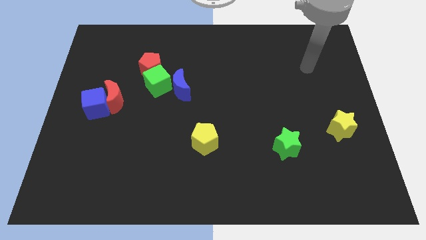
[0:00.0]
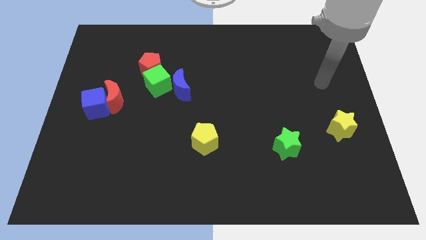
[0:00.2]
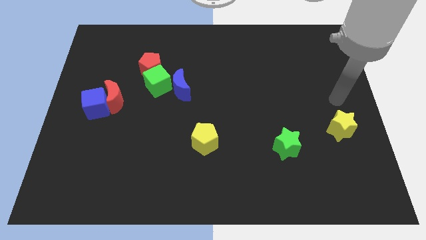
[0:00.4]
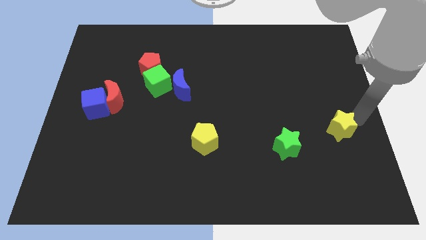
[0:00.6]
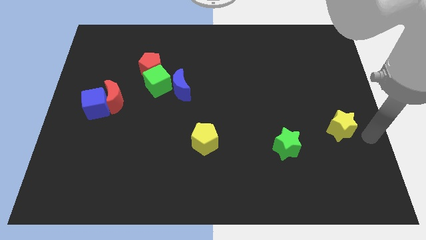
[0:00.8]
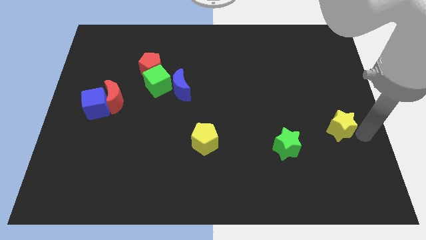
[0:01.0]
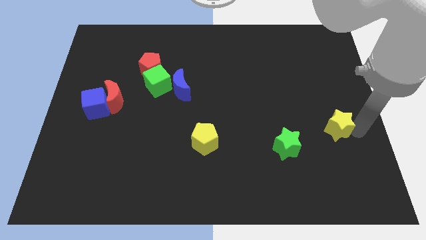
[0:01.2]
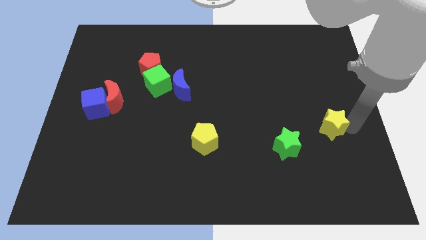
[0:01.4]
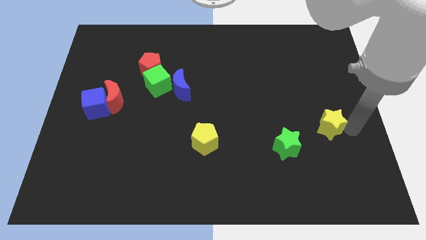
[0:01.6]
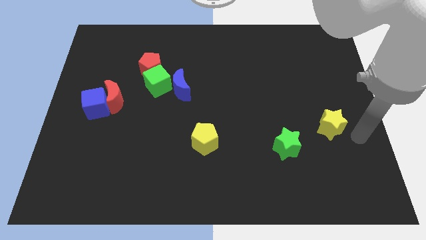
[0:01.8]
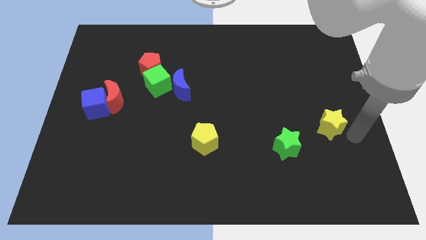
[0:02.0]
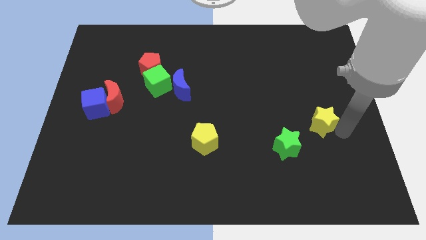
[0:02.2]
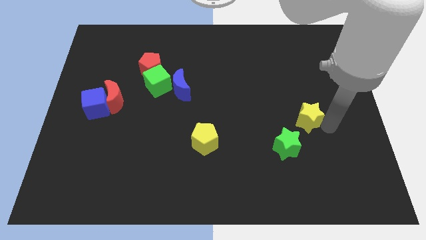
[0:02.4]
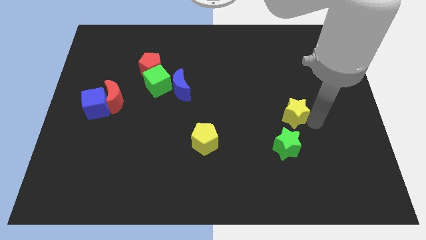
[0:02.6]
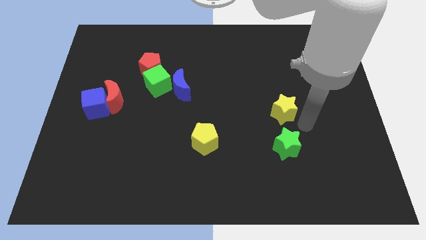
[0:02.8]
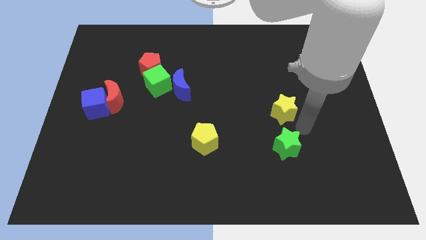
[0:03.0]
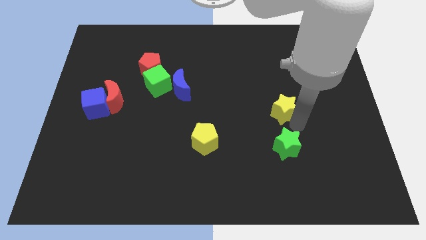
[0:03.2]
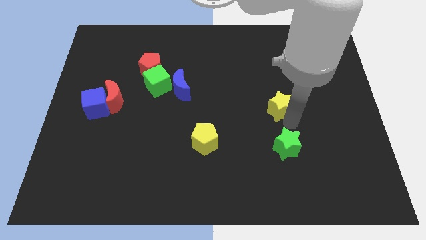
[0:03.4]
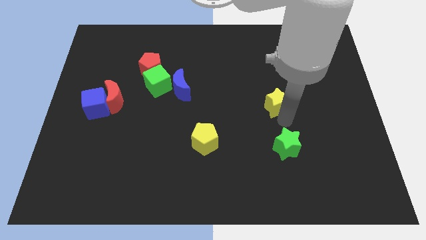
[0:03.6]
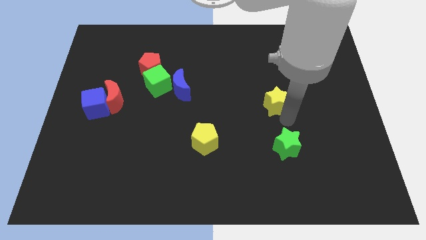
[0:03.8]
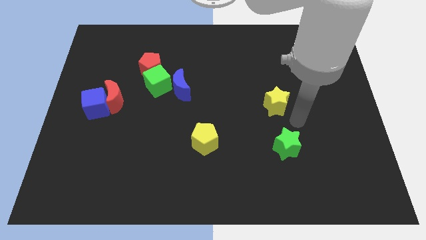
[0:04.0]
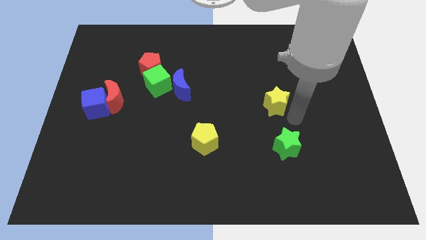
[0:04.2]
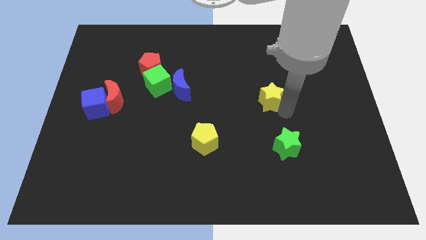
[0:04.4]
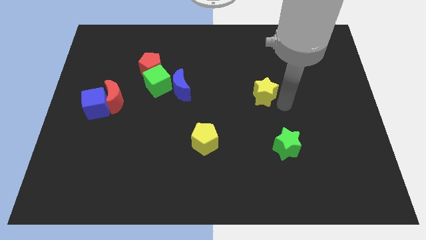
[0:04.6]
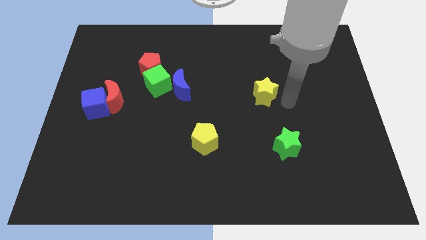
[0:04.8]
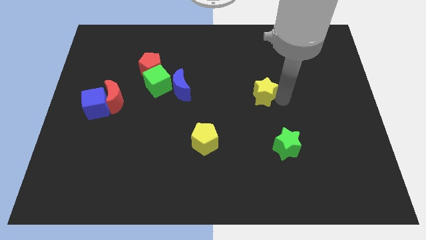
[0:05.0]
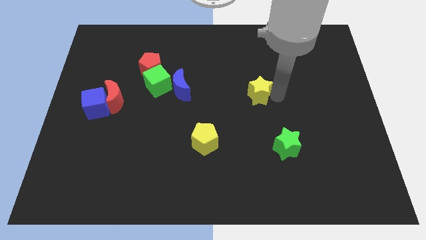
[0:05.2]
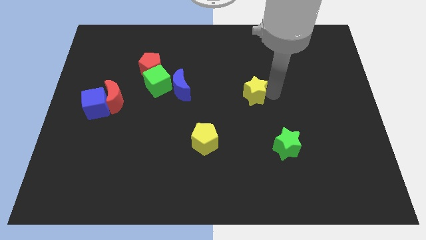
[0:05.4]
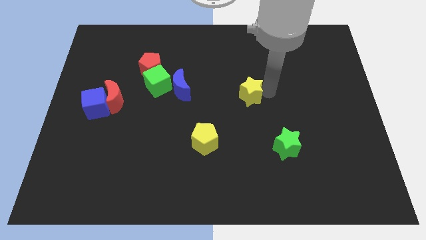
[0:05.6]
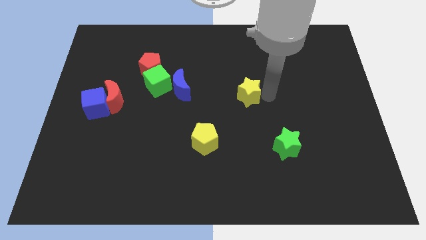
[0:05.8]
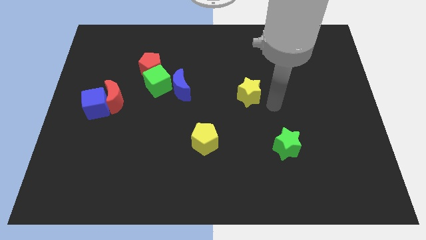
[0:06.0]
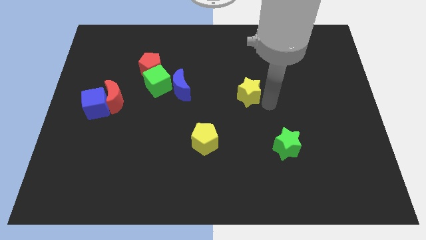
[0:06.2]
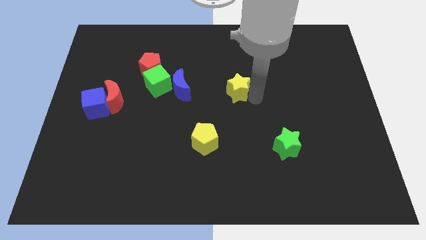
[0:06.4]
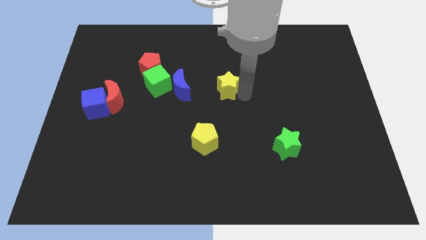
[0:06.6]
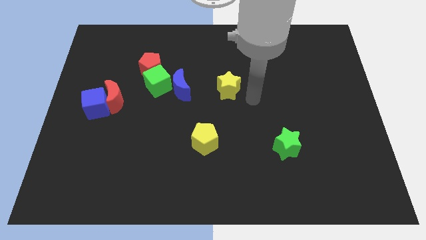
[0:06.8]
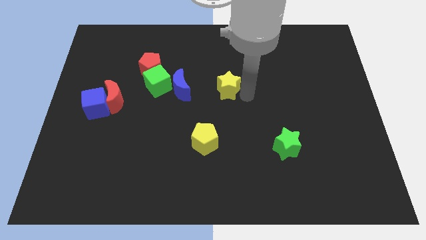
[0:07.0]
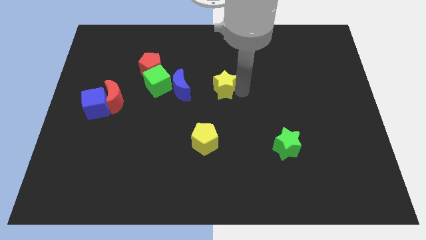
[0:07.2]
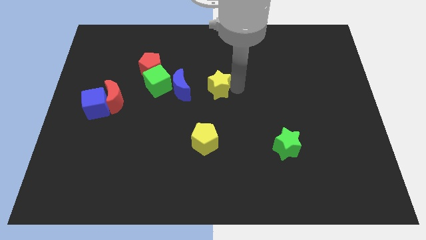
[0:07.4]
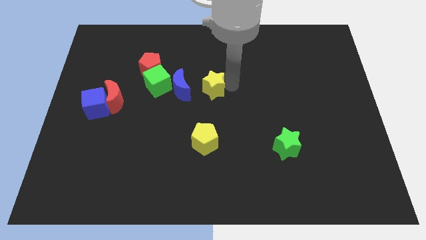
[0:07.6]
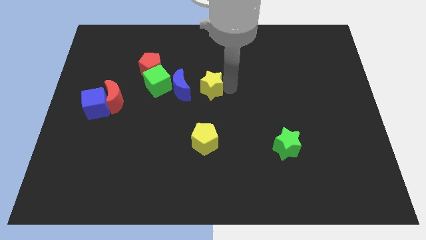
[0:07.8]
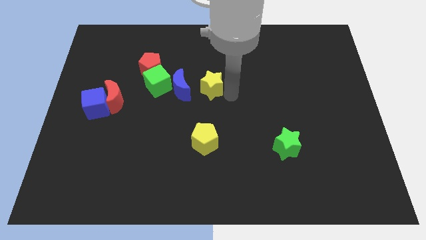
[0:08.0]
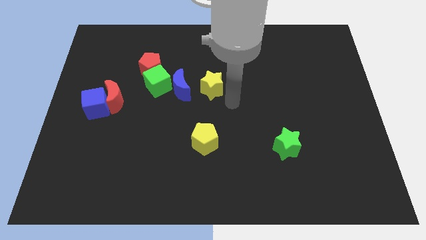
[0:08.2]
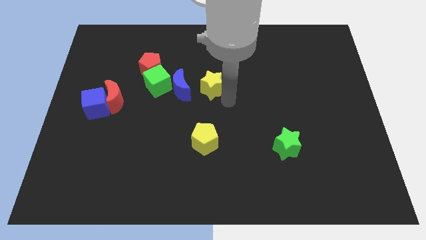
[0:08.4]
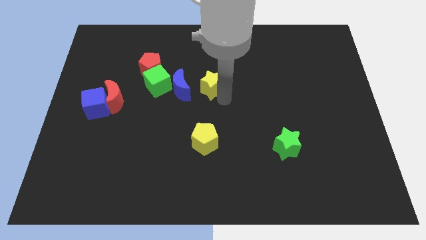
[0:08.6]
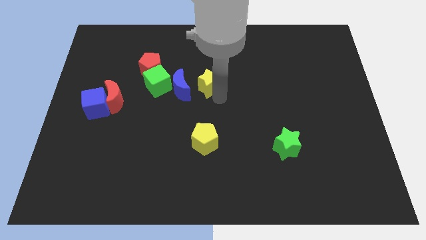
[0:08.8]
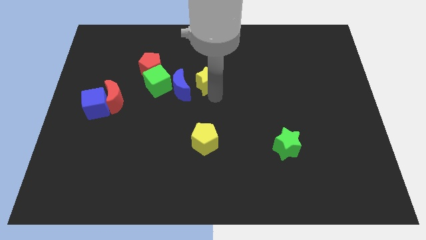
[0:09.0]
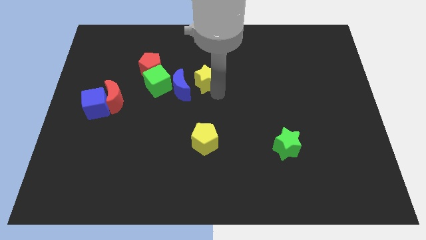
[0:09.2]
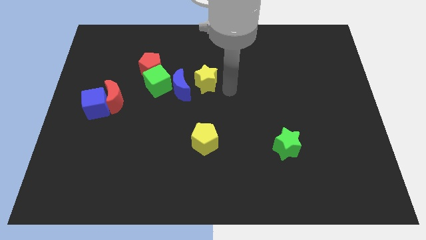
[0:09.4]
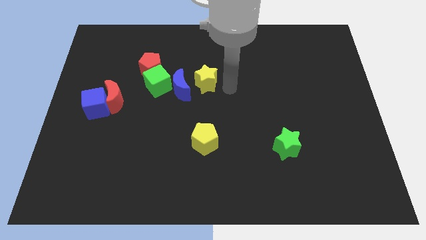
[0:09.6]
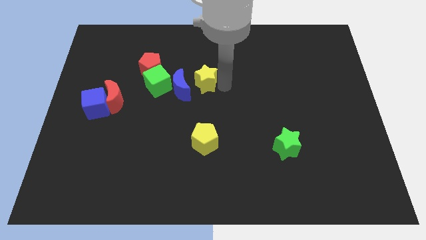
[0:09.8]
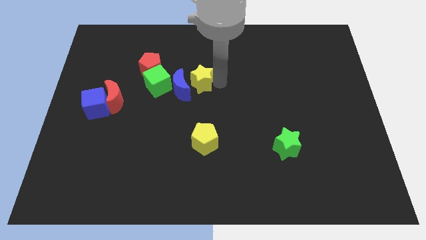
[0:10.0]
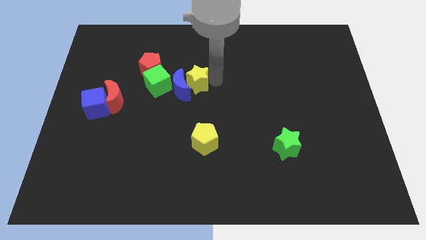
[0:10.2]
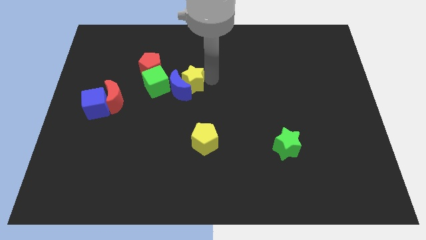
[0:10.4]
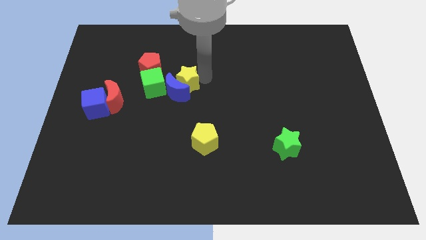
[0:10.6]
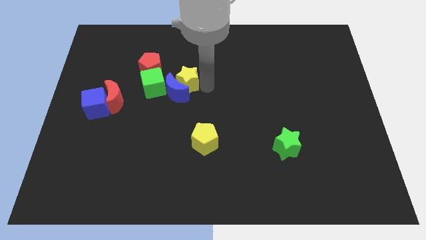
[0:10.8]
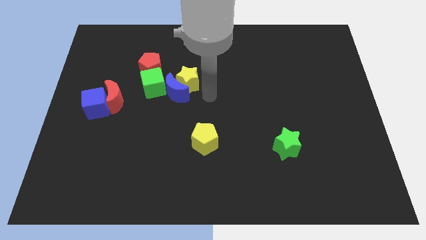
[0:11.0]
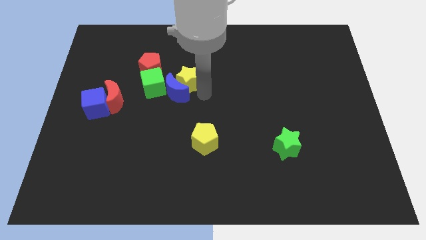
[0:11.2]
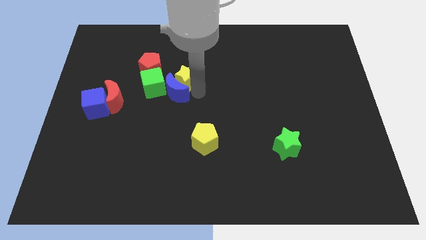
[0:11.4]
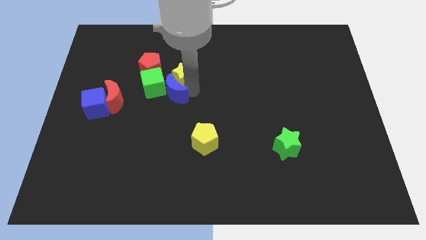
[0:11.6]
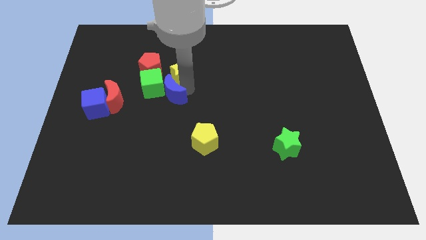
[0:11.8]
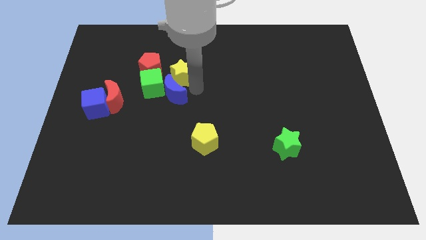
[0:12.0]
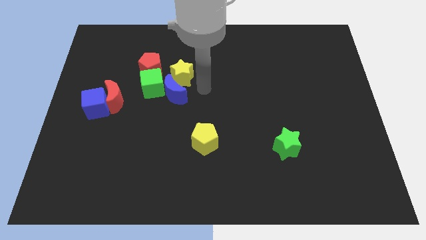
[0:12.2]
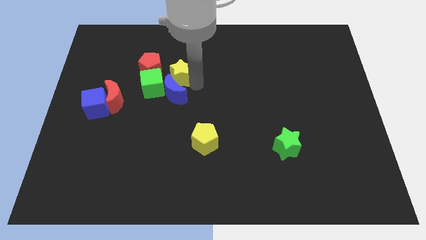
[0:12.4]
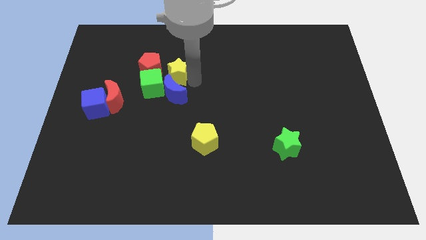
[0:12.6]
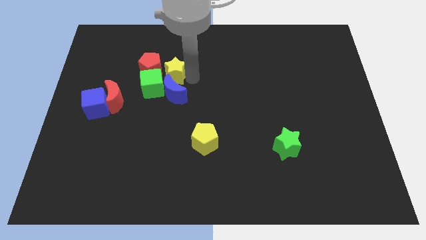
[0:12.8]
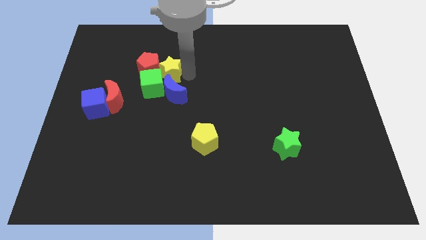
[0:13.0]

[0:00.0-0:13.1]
move the yellow star to the red pentagon

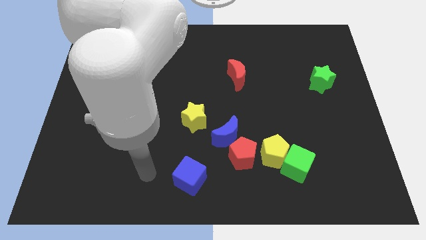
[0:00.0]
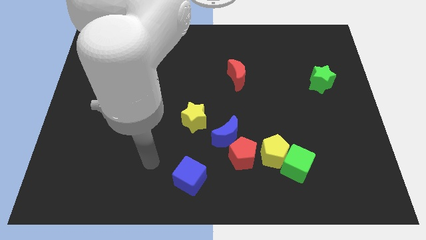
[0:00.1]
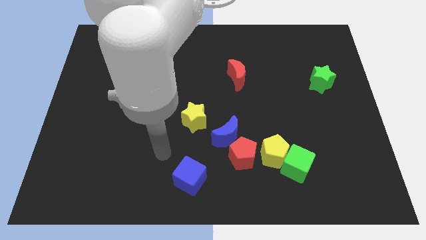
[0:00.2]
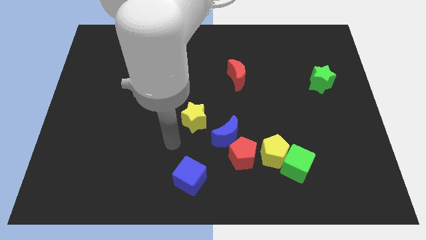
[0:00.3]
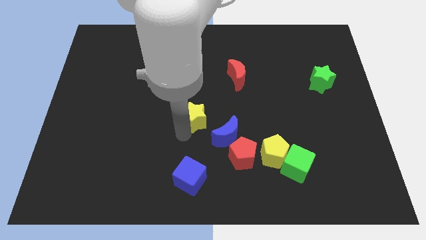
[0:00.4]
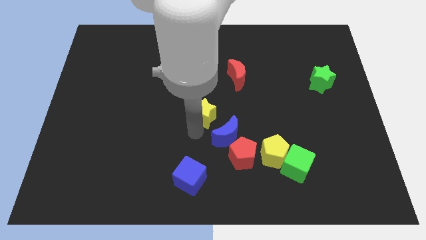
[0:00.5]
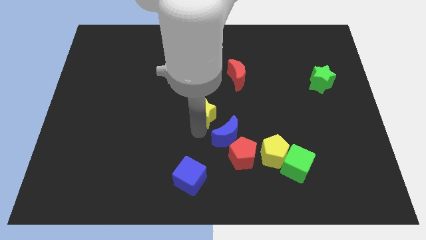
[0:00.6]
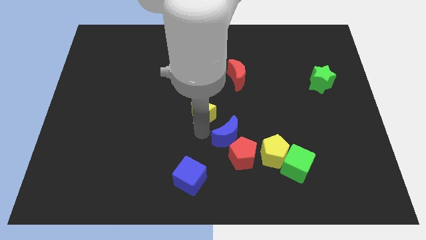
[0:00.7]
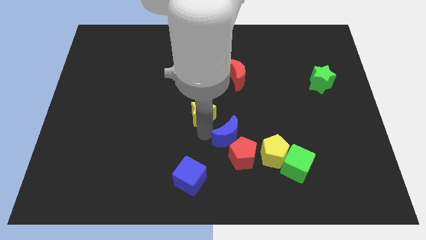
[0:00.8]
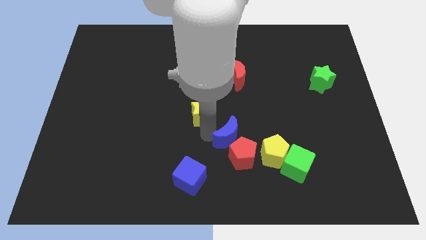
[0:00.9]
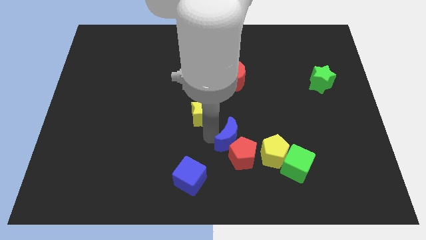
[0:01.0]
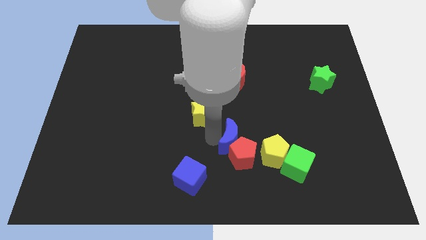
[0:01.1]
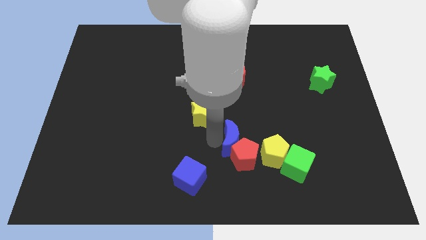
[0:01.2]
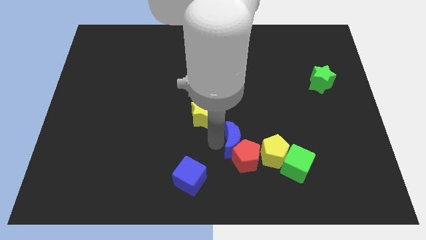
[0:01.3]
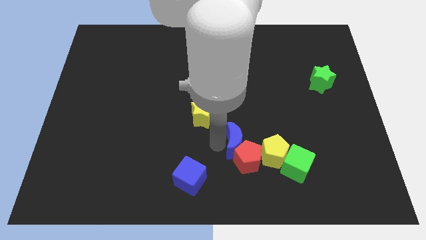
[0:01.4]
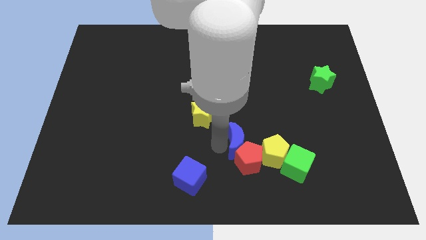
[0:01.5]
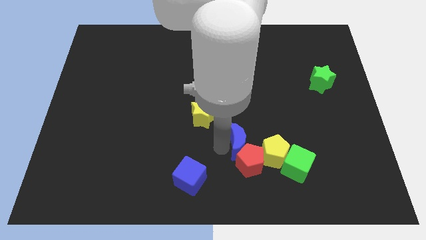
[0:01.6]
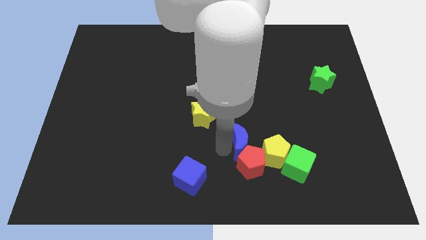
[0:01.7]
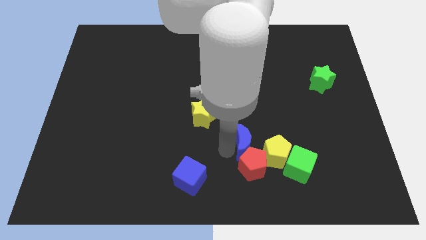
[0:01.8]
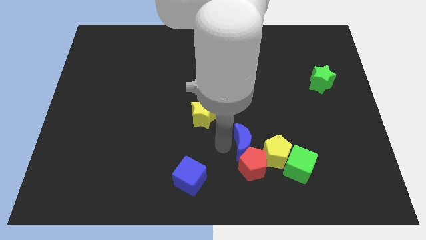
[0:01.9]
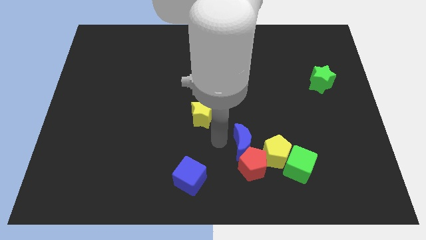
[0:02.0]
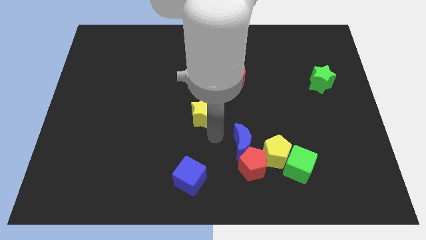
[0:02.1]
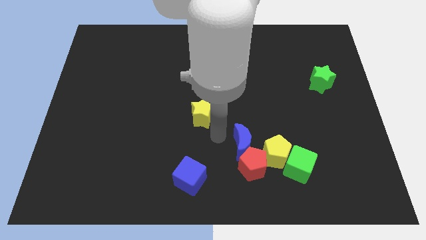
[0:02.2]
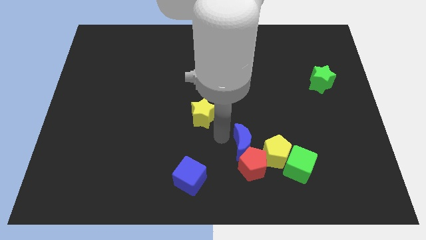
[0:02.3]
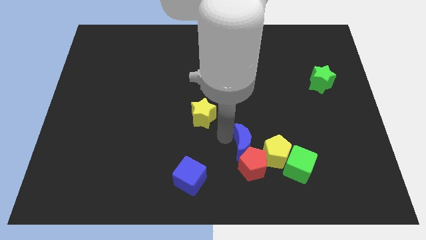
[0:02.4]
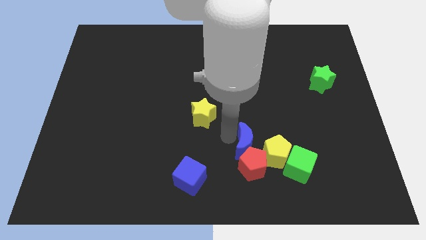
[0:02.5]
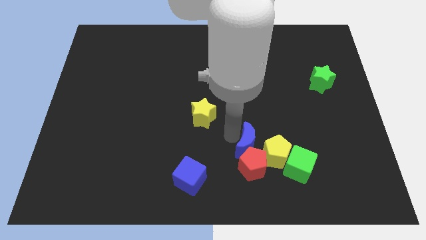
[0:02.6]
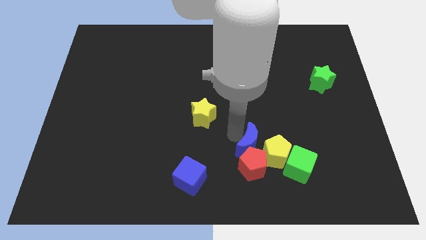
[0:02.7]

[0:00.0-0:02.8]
slide the blue moon next to the yellow pentagon
